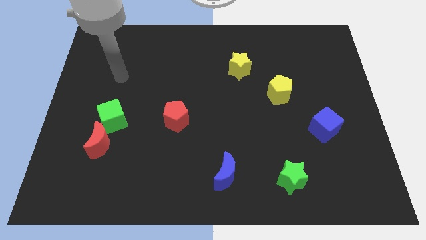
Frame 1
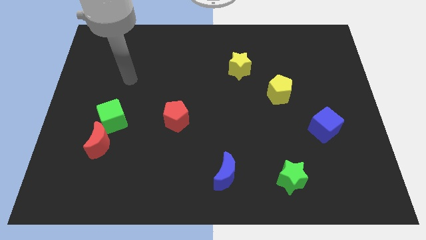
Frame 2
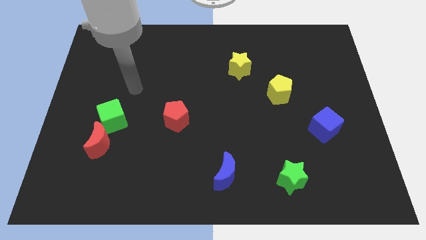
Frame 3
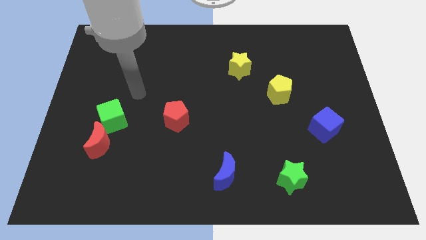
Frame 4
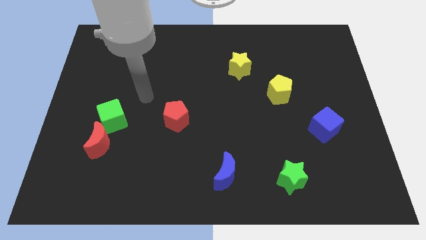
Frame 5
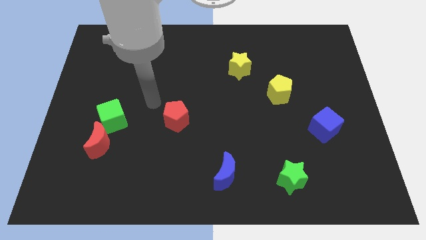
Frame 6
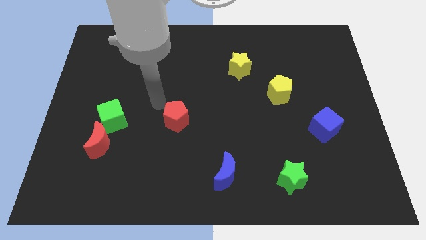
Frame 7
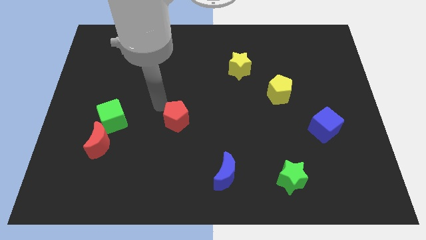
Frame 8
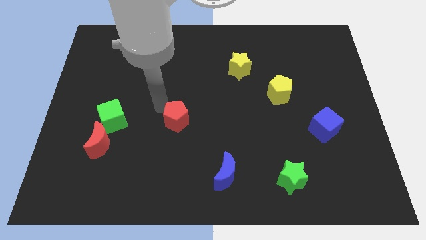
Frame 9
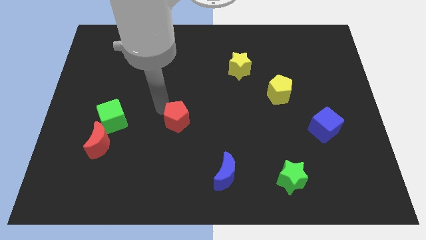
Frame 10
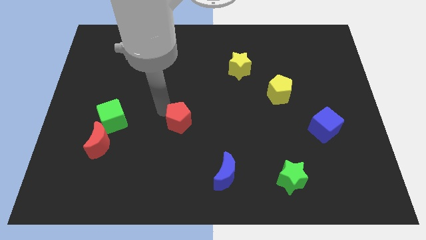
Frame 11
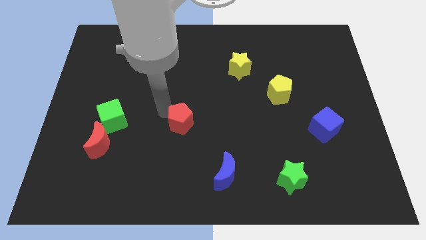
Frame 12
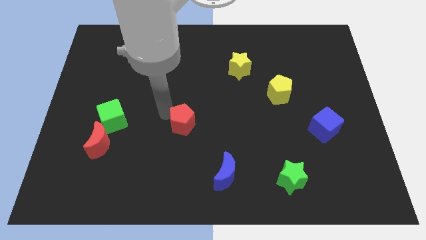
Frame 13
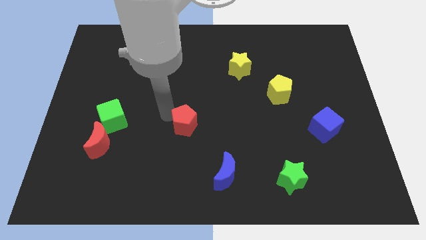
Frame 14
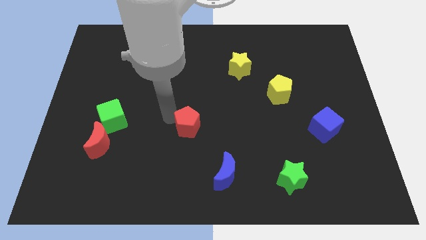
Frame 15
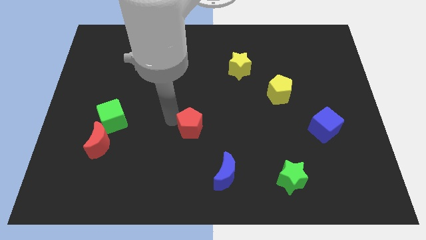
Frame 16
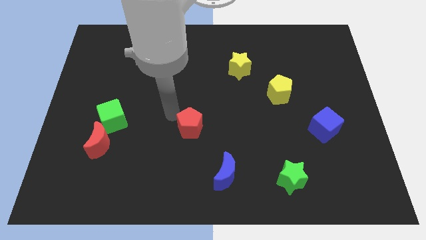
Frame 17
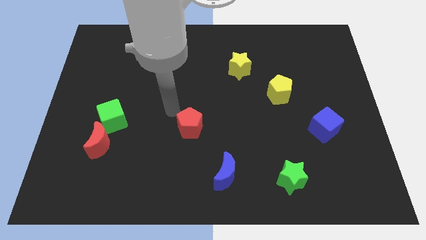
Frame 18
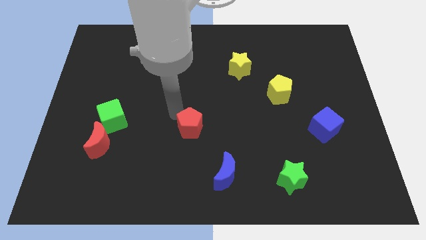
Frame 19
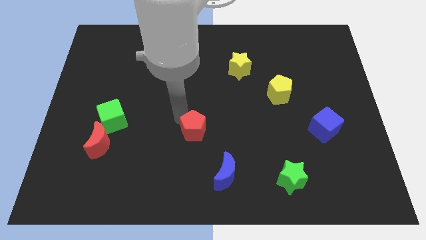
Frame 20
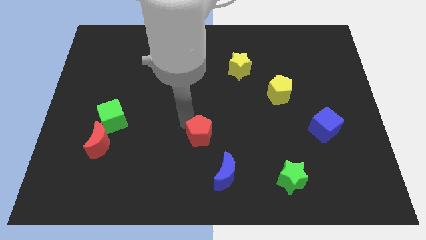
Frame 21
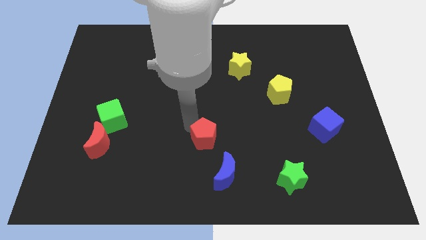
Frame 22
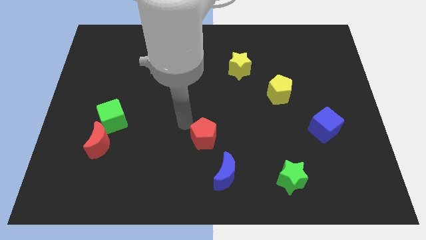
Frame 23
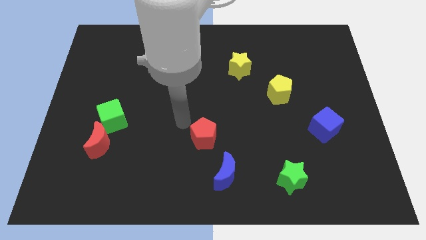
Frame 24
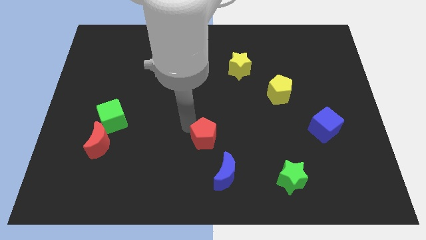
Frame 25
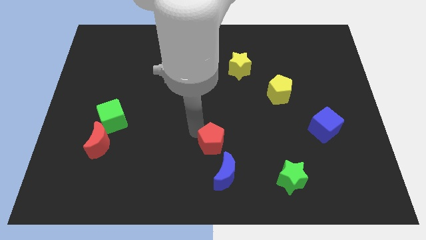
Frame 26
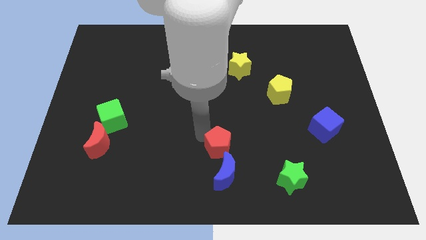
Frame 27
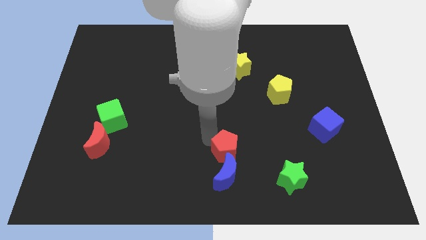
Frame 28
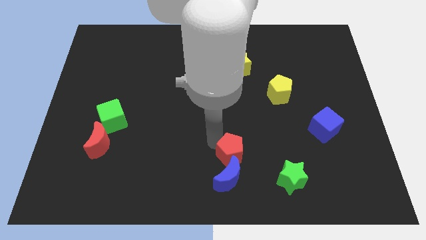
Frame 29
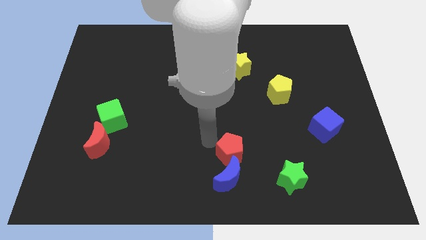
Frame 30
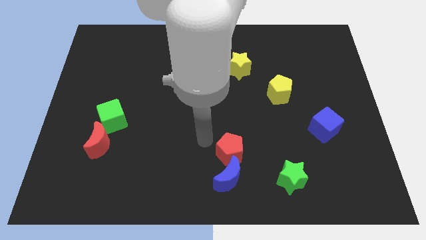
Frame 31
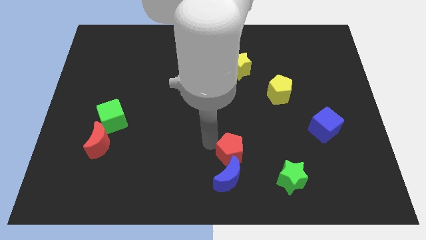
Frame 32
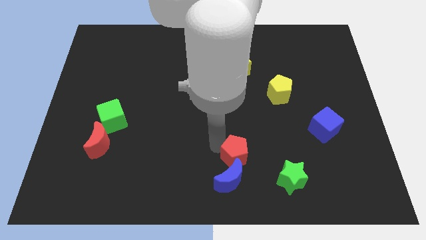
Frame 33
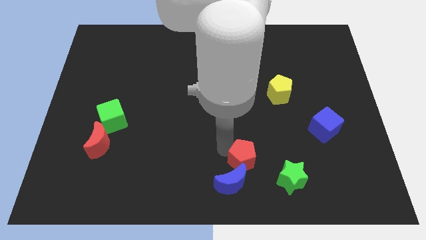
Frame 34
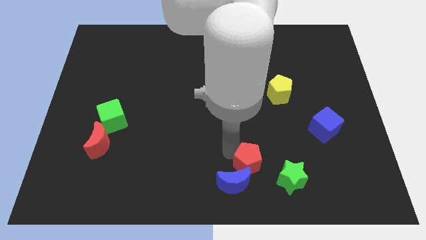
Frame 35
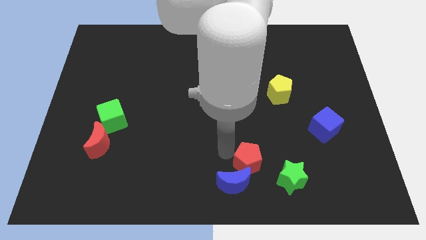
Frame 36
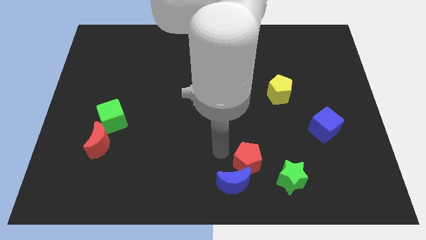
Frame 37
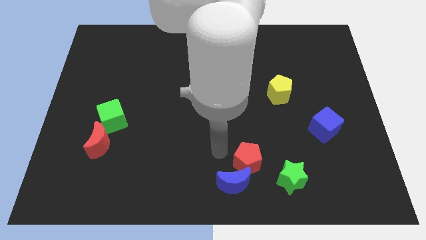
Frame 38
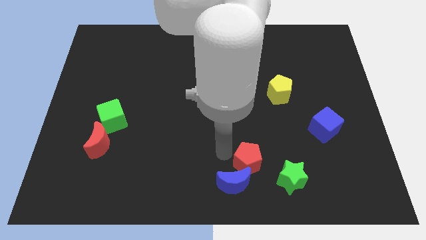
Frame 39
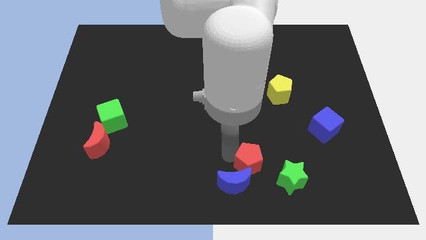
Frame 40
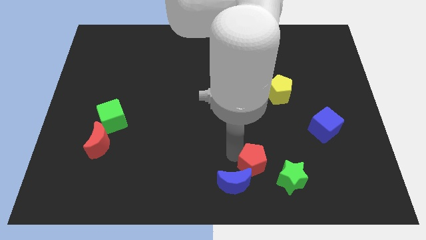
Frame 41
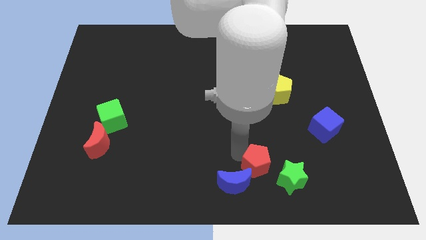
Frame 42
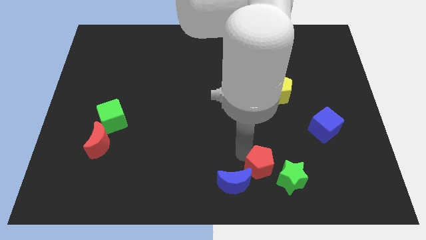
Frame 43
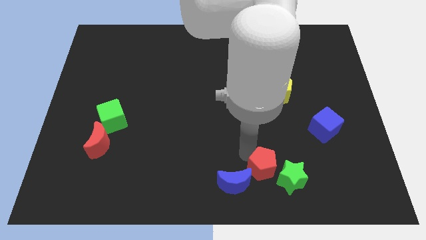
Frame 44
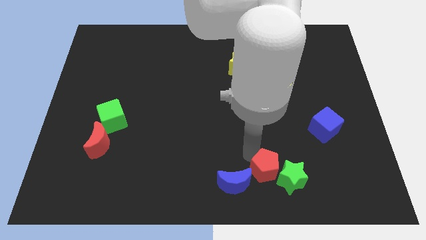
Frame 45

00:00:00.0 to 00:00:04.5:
push the red pentagon close to the green star

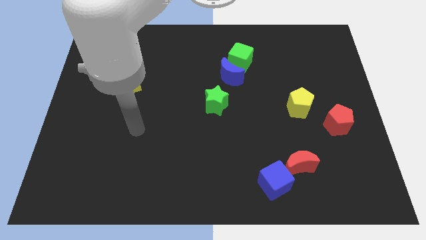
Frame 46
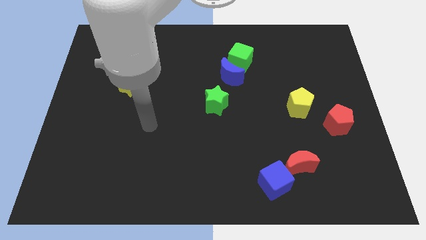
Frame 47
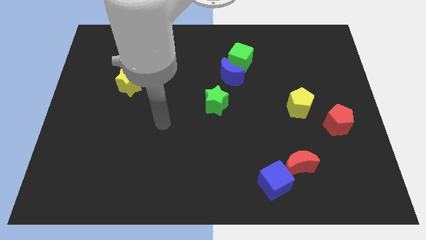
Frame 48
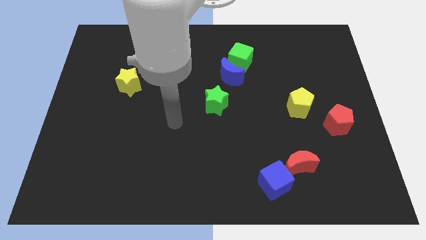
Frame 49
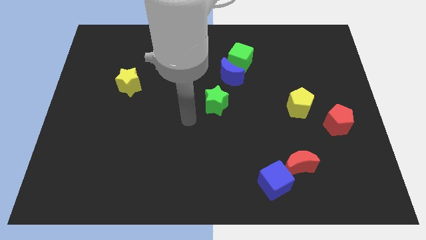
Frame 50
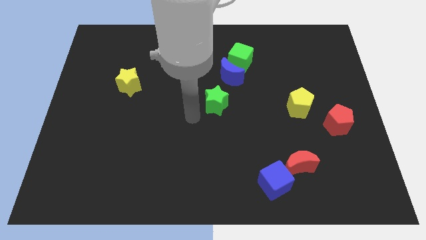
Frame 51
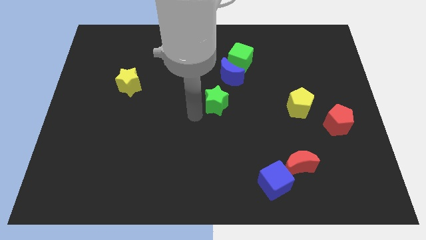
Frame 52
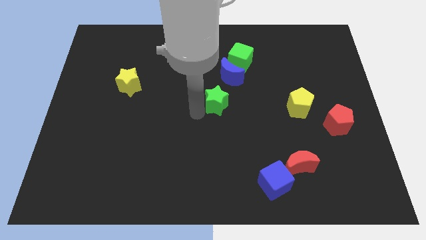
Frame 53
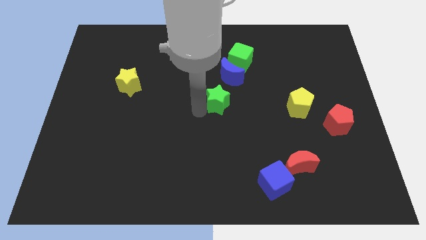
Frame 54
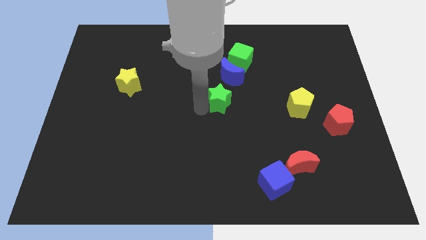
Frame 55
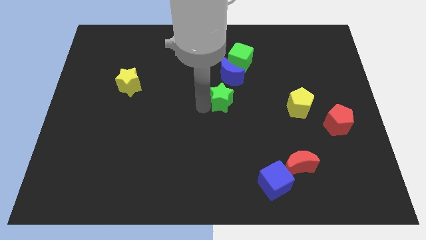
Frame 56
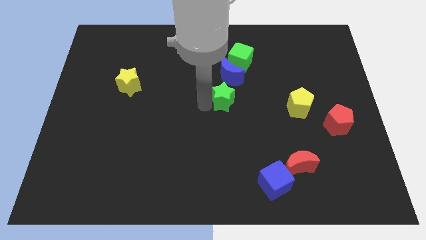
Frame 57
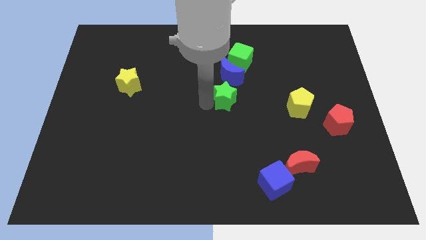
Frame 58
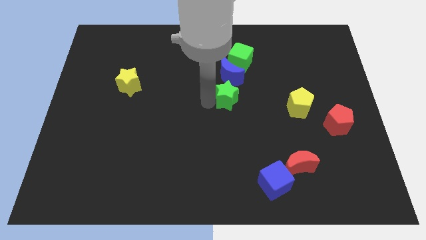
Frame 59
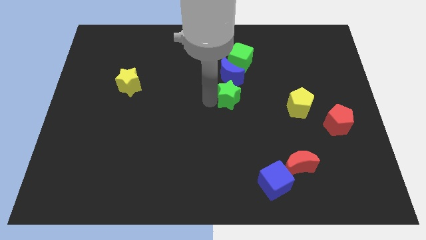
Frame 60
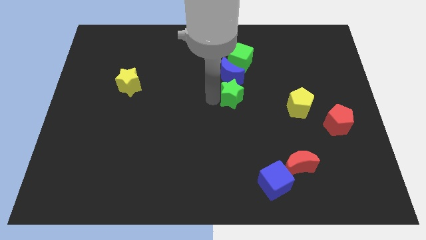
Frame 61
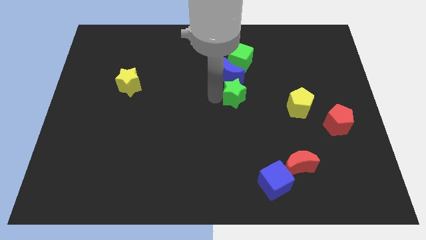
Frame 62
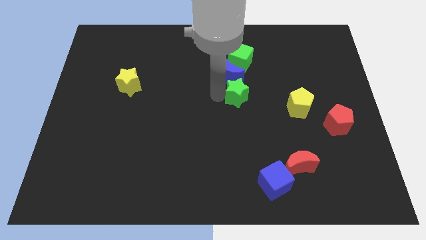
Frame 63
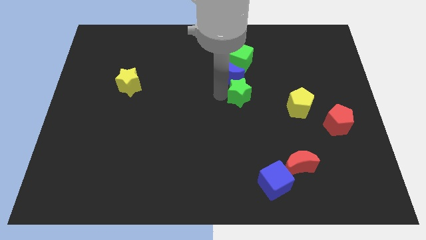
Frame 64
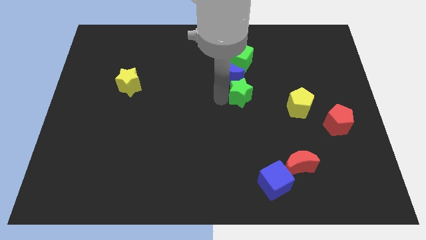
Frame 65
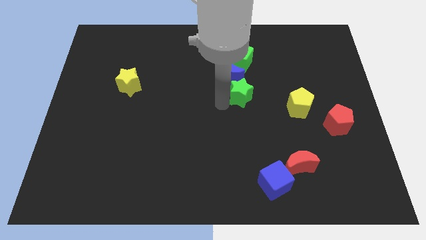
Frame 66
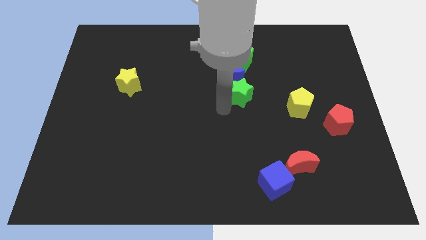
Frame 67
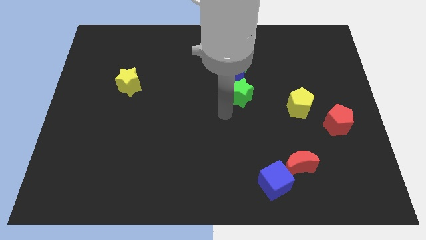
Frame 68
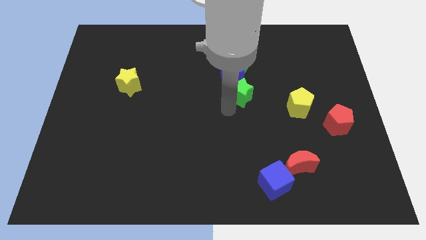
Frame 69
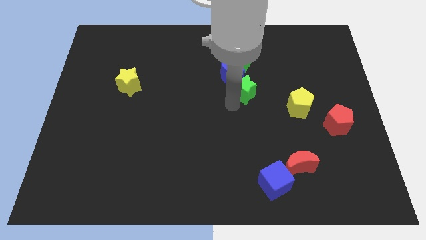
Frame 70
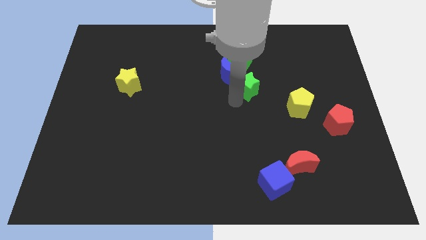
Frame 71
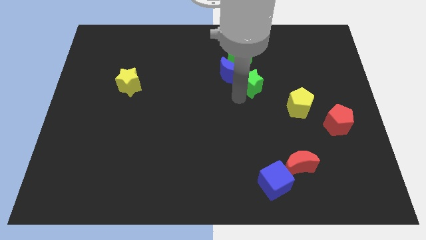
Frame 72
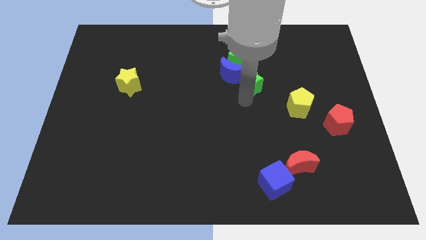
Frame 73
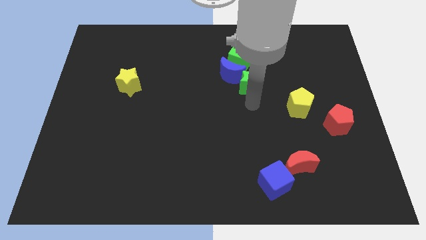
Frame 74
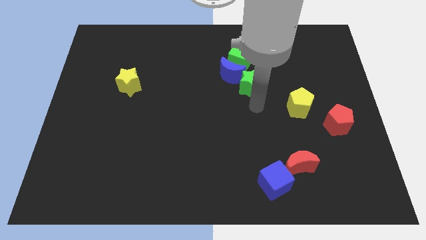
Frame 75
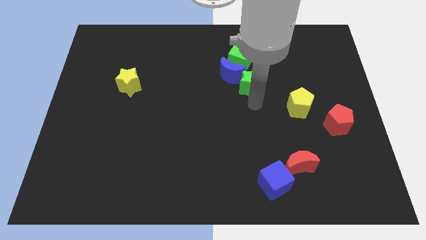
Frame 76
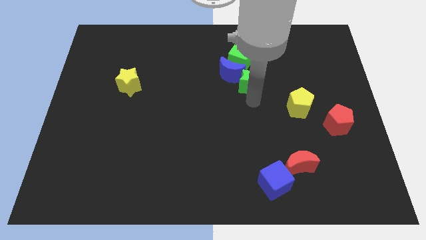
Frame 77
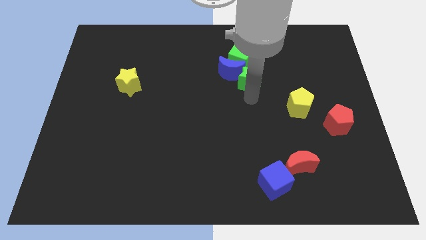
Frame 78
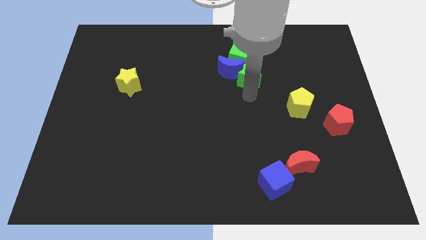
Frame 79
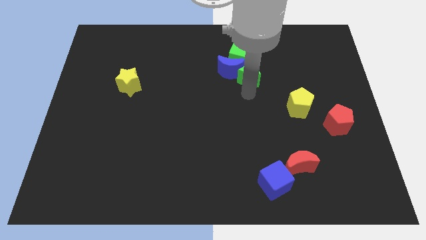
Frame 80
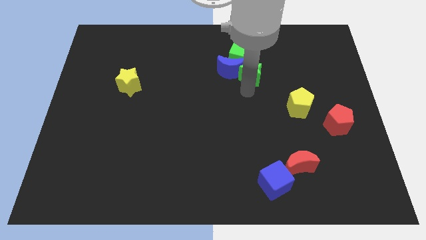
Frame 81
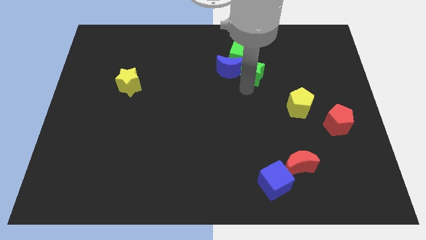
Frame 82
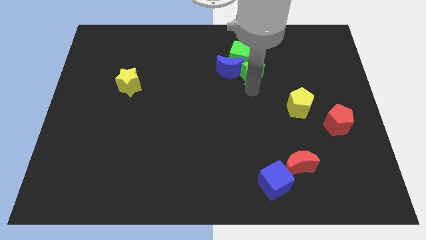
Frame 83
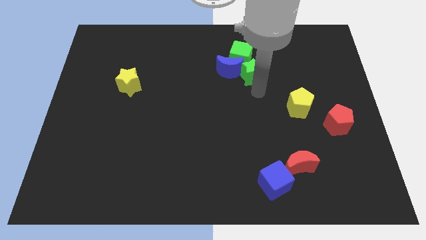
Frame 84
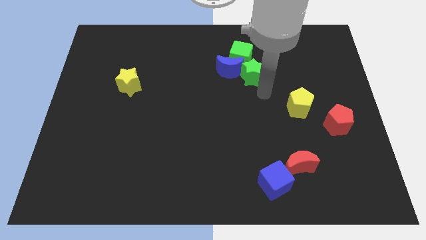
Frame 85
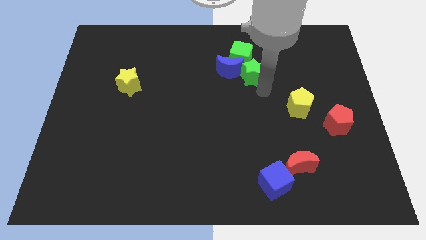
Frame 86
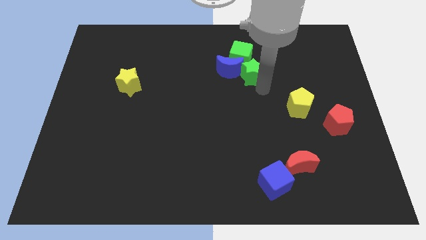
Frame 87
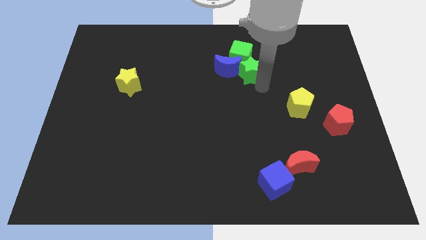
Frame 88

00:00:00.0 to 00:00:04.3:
slide the green star towards the green cube
